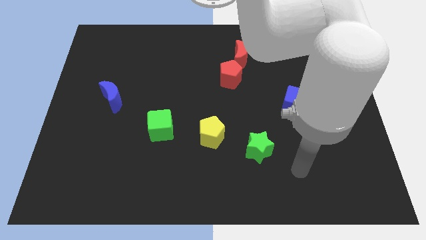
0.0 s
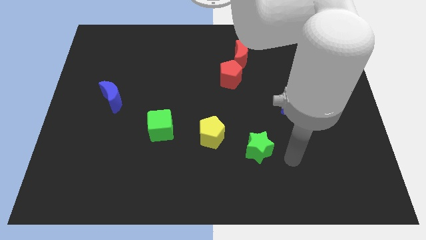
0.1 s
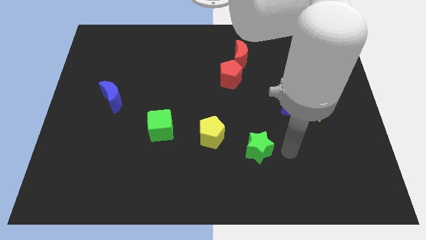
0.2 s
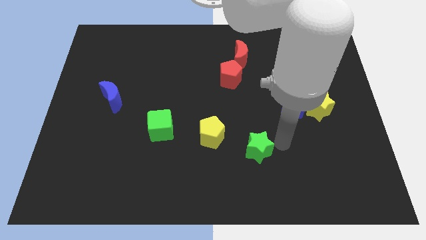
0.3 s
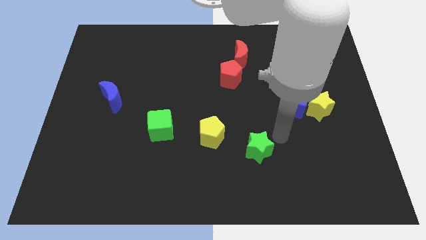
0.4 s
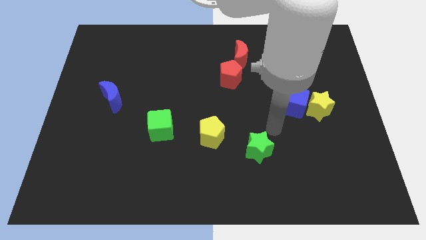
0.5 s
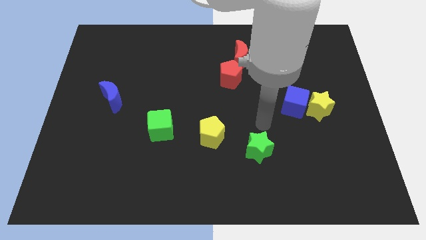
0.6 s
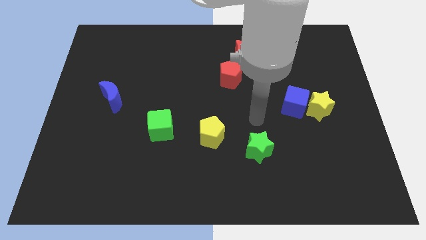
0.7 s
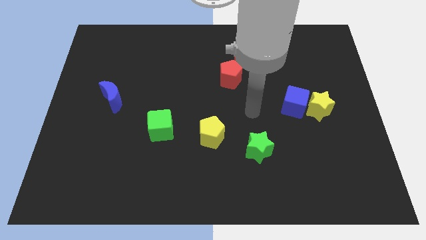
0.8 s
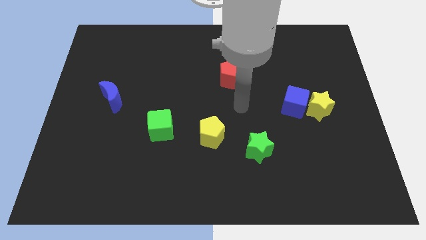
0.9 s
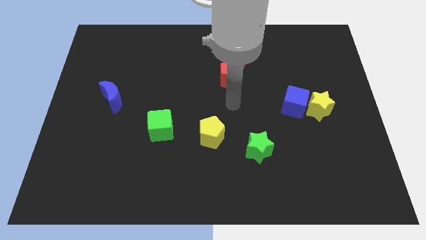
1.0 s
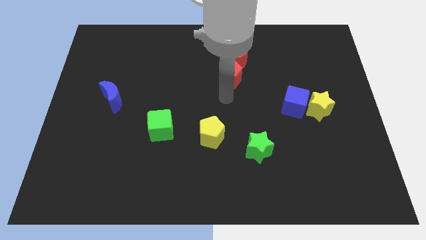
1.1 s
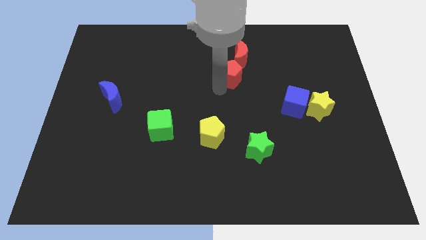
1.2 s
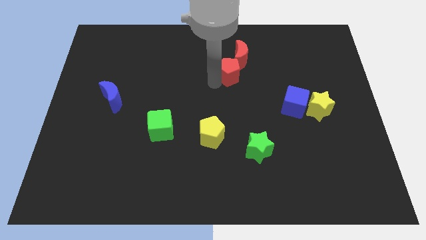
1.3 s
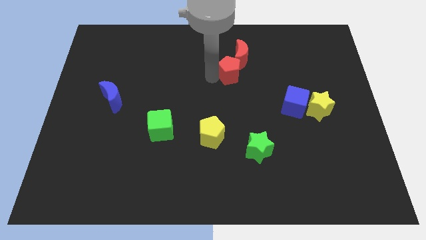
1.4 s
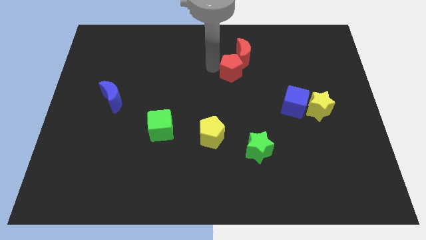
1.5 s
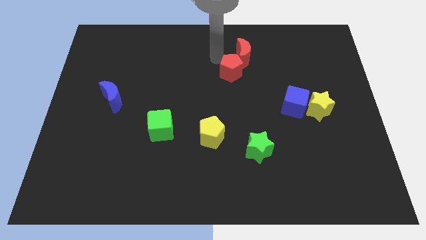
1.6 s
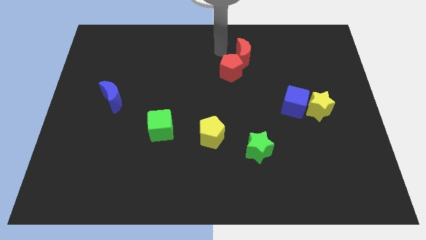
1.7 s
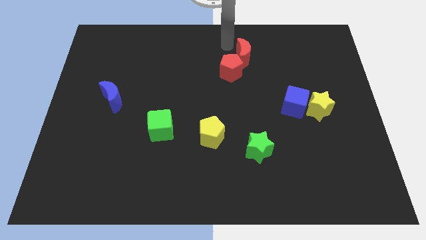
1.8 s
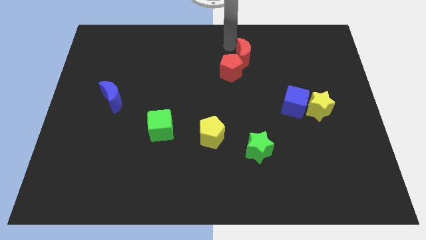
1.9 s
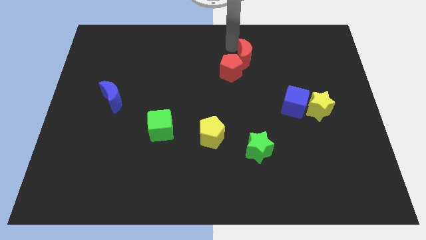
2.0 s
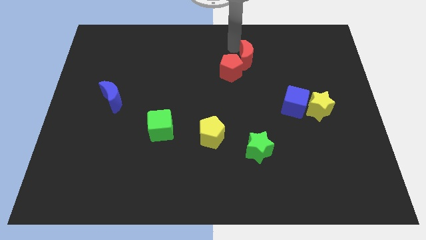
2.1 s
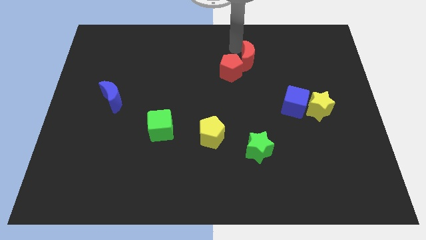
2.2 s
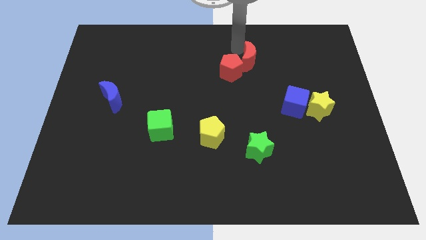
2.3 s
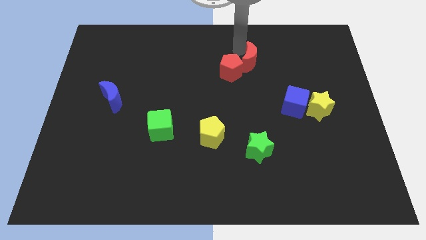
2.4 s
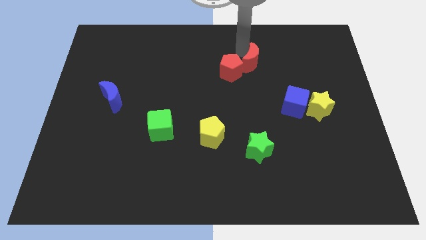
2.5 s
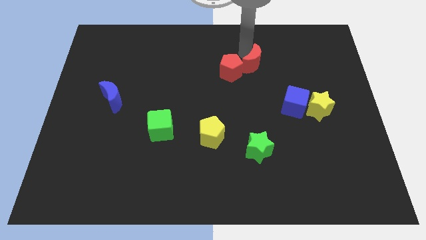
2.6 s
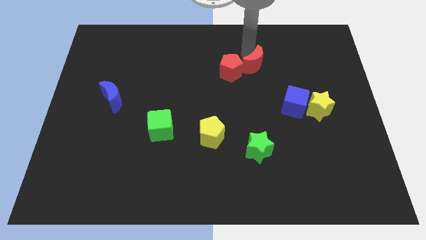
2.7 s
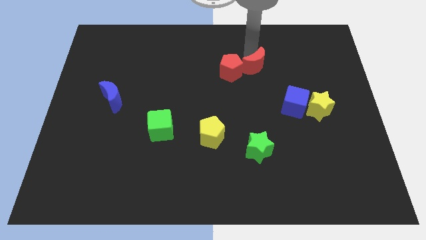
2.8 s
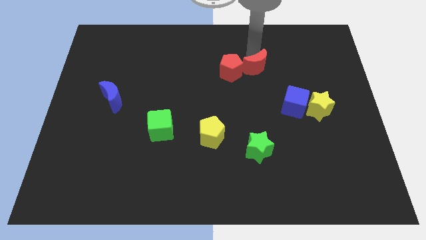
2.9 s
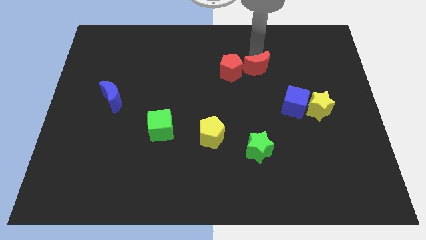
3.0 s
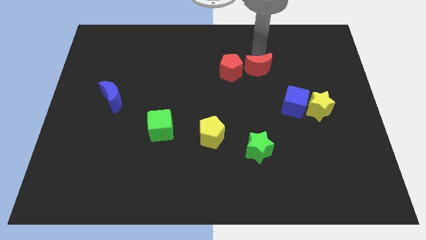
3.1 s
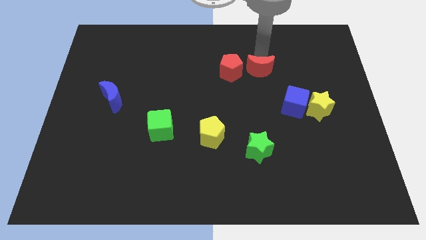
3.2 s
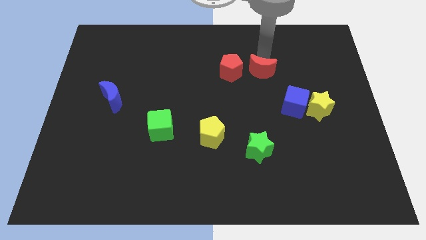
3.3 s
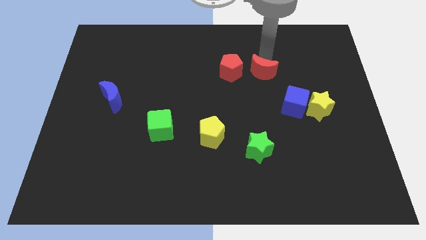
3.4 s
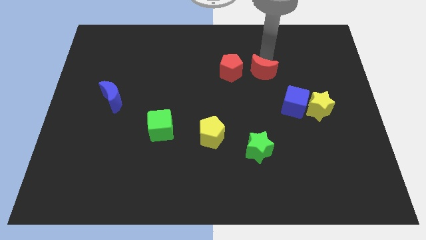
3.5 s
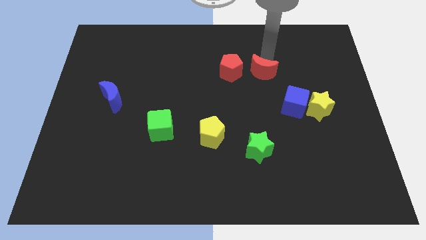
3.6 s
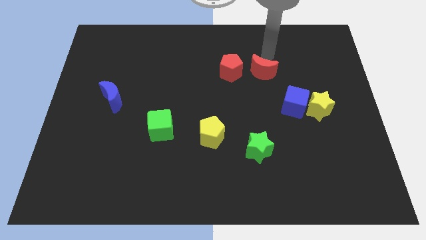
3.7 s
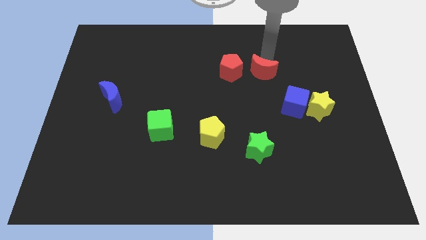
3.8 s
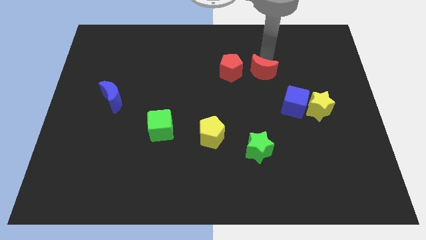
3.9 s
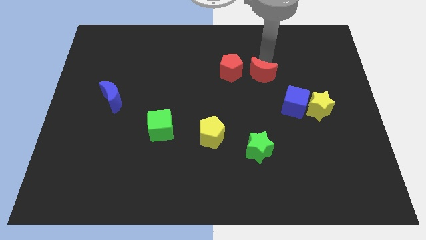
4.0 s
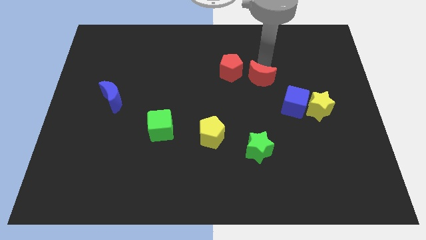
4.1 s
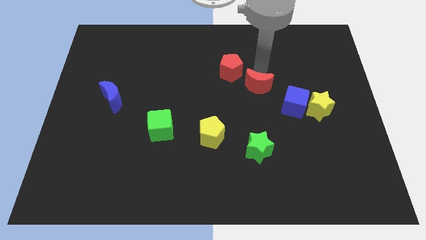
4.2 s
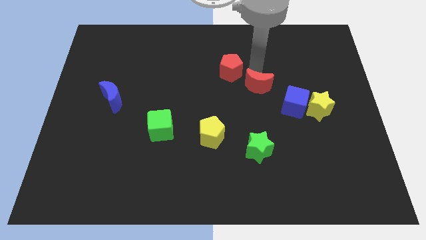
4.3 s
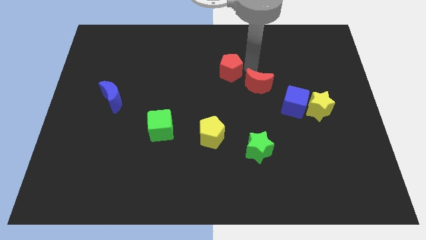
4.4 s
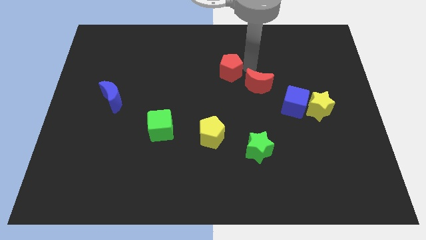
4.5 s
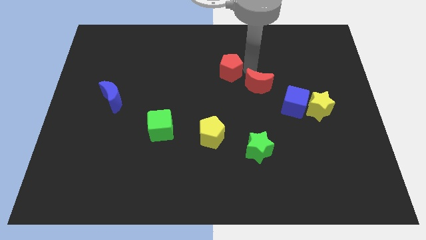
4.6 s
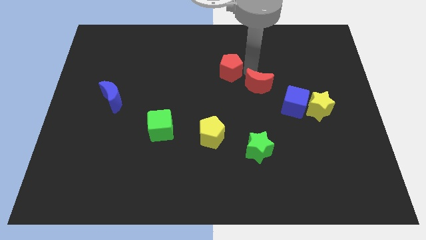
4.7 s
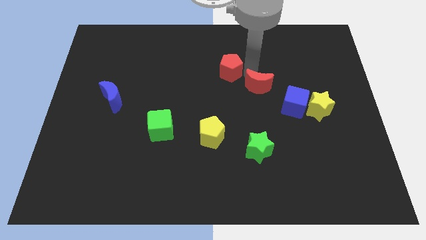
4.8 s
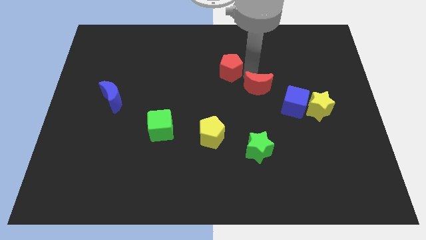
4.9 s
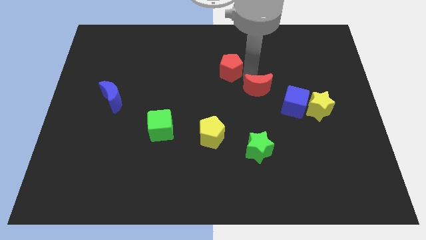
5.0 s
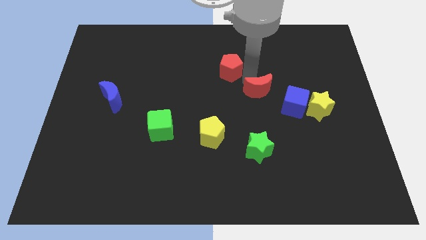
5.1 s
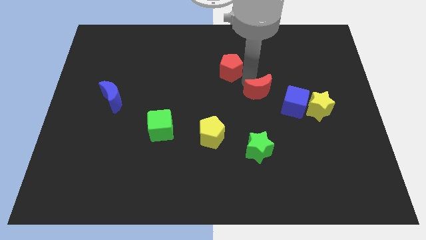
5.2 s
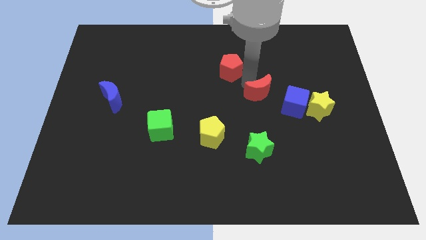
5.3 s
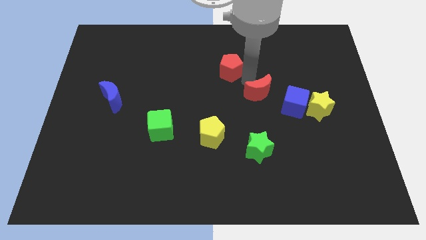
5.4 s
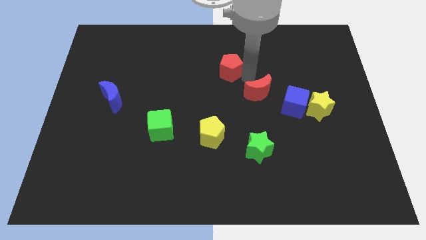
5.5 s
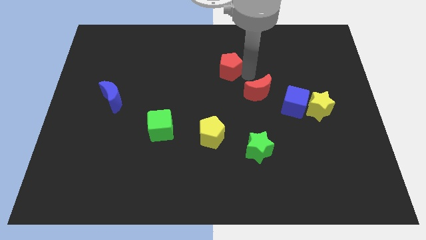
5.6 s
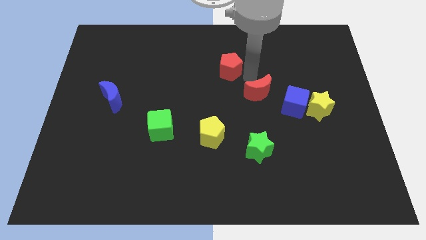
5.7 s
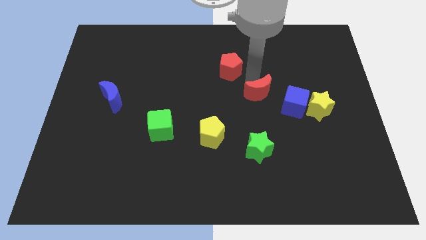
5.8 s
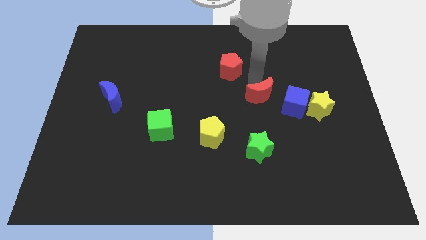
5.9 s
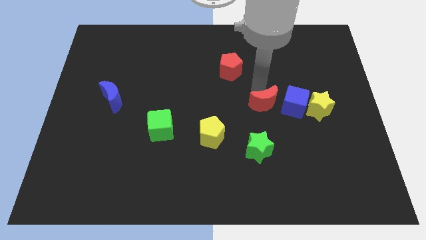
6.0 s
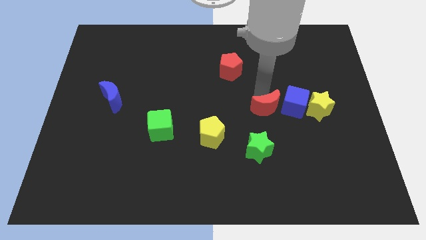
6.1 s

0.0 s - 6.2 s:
push the red moon to the bottom left of the blue cube

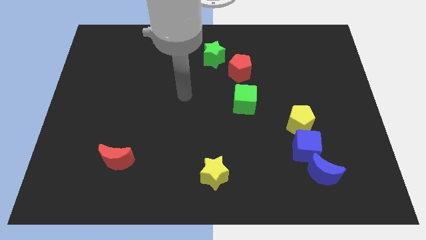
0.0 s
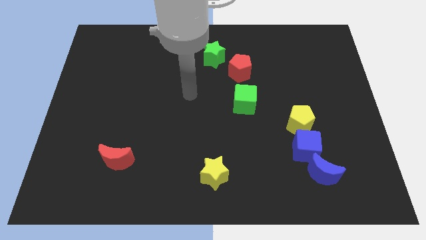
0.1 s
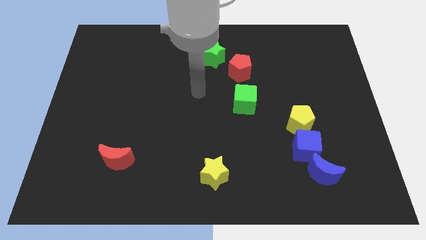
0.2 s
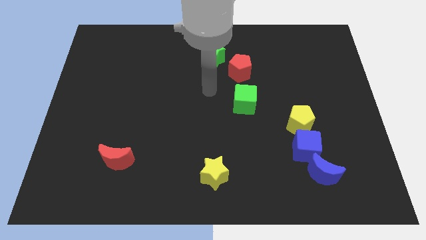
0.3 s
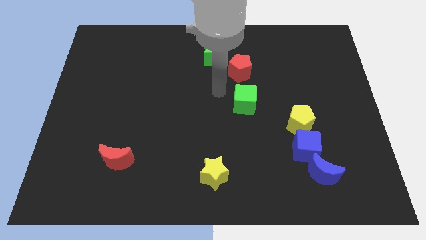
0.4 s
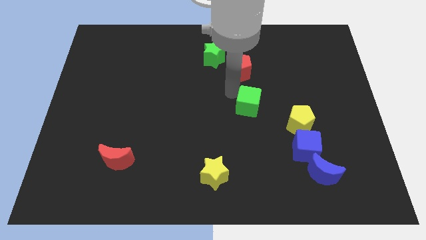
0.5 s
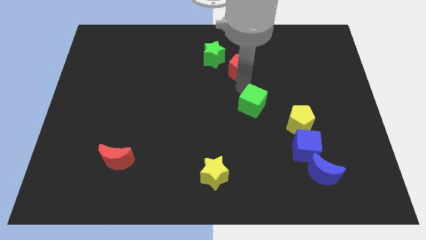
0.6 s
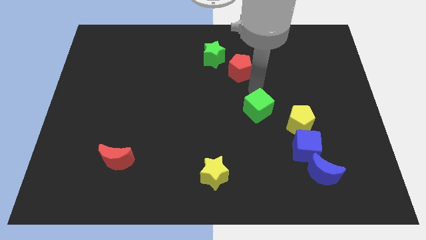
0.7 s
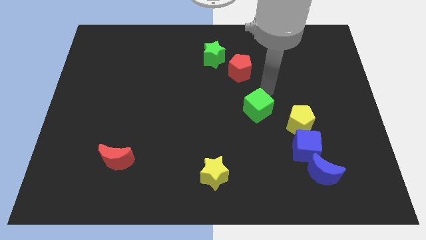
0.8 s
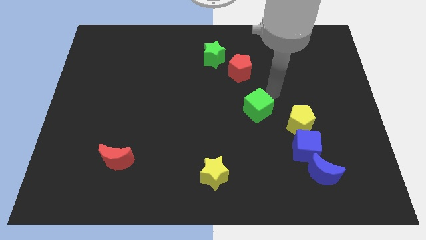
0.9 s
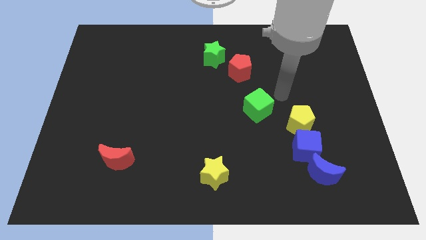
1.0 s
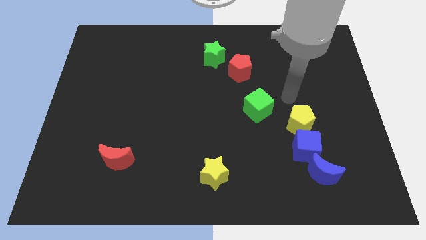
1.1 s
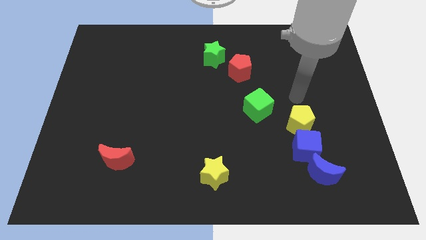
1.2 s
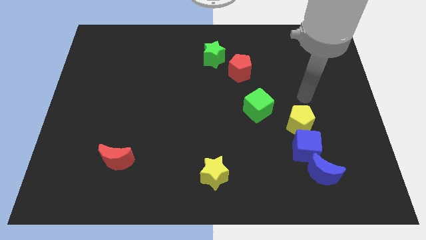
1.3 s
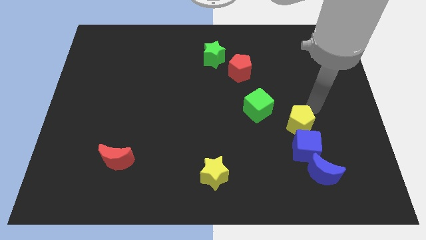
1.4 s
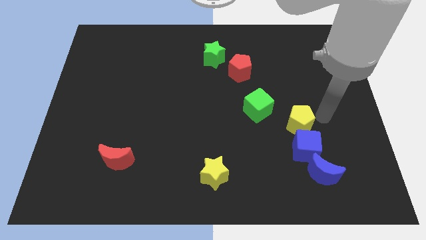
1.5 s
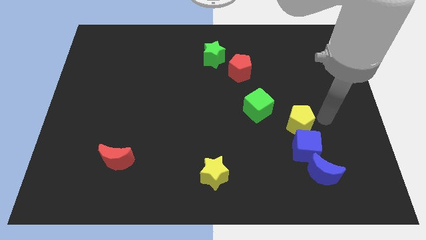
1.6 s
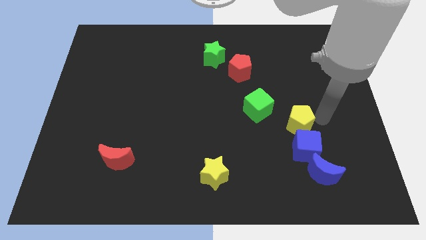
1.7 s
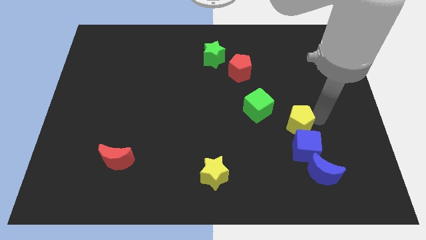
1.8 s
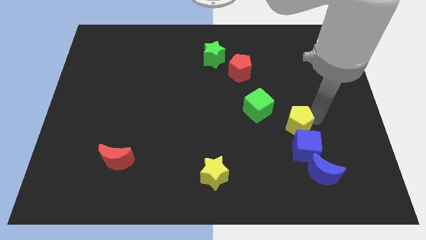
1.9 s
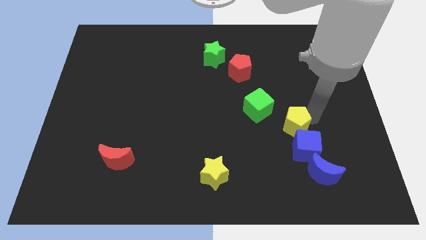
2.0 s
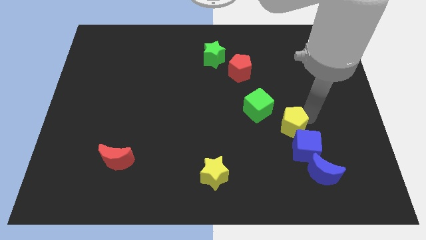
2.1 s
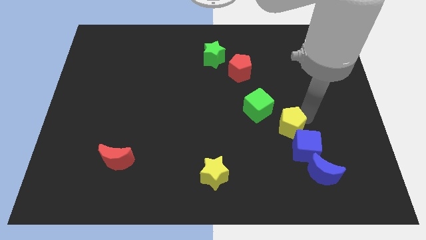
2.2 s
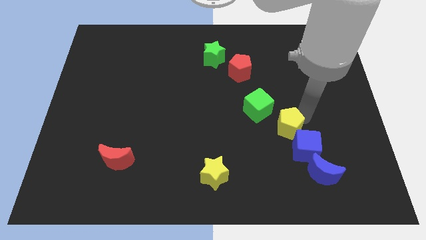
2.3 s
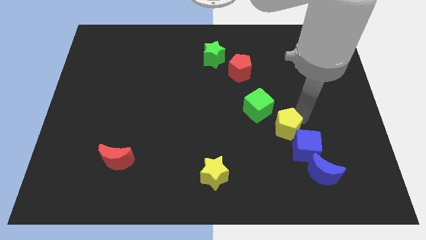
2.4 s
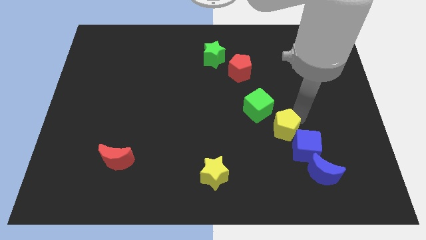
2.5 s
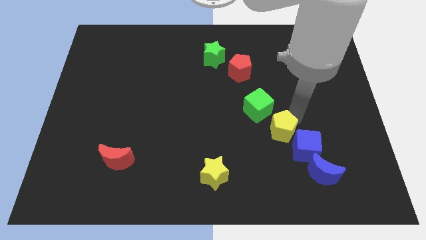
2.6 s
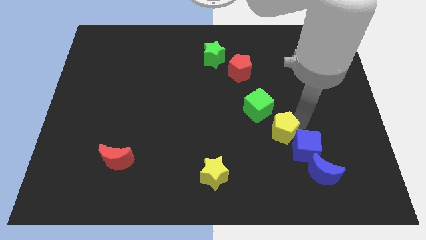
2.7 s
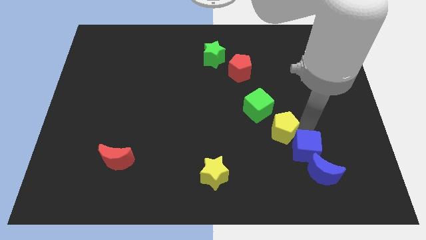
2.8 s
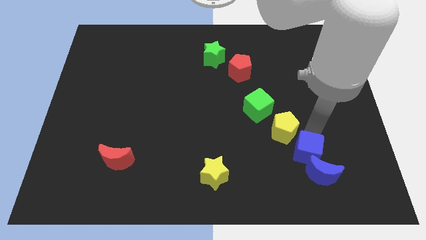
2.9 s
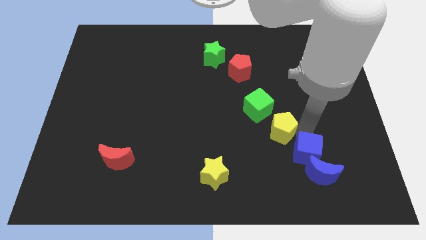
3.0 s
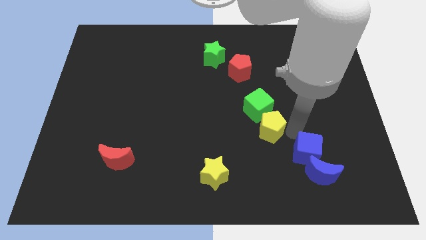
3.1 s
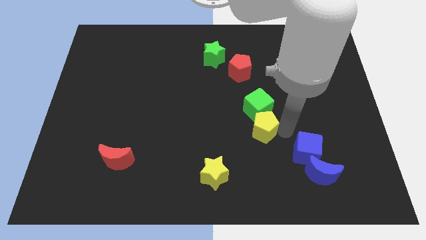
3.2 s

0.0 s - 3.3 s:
move the yellow pentagon to the bottom left of the green cube
